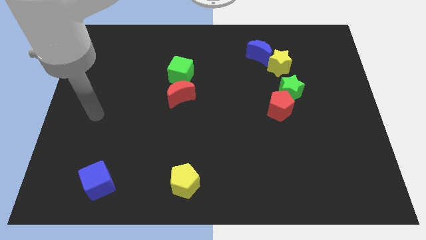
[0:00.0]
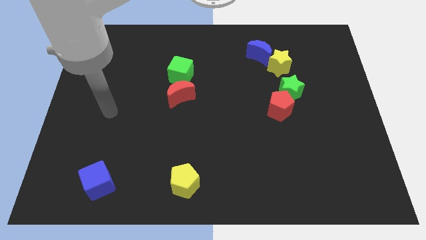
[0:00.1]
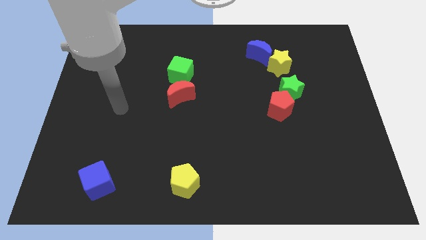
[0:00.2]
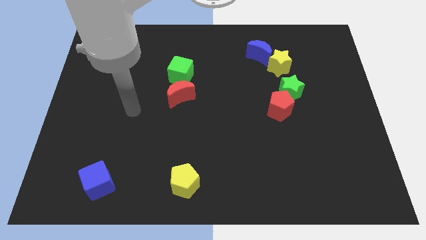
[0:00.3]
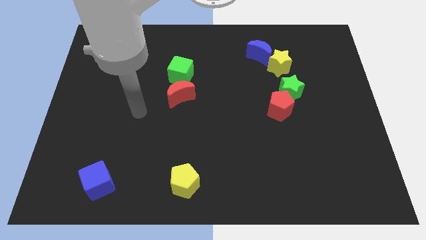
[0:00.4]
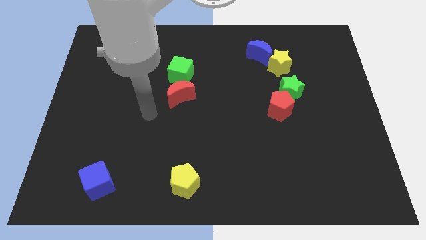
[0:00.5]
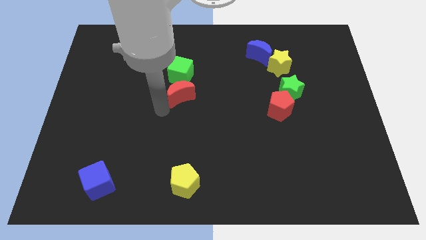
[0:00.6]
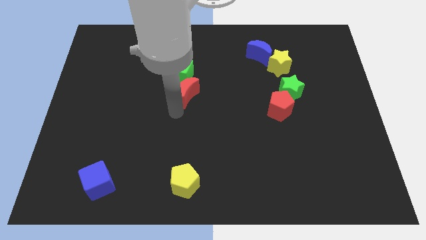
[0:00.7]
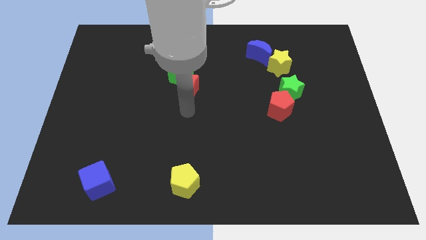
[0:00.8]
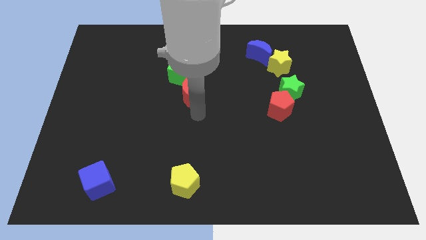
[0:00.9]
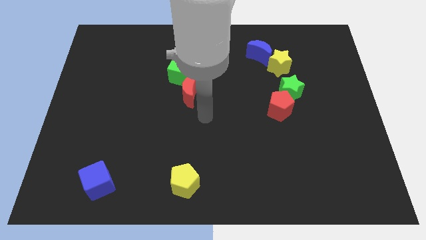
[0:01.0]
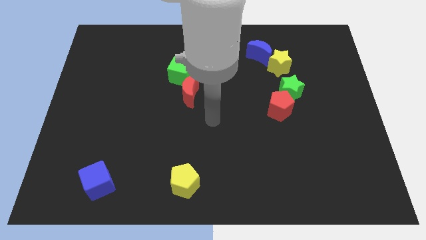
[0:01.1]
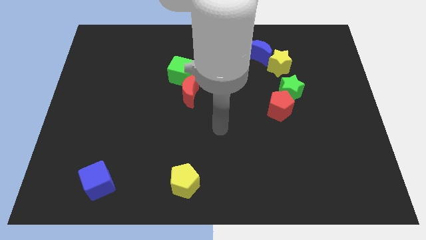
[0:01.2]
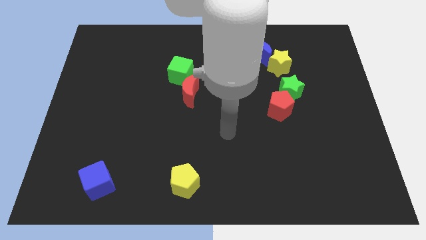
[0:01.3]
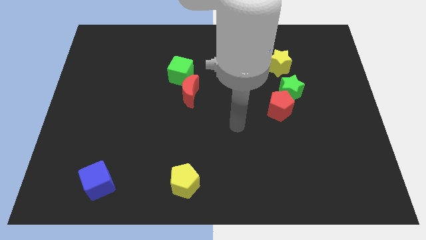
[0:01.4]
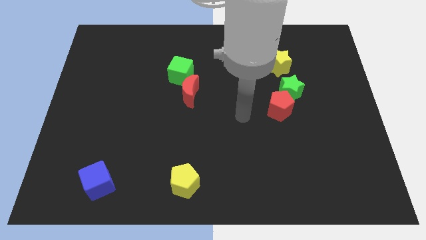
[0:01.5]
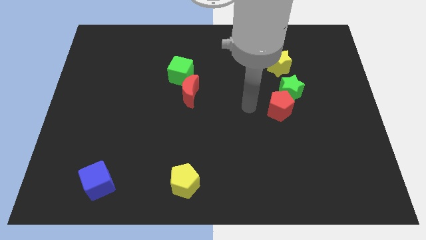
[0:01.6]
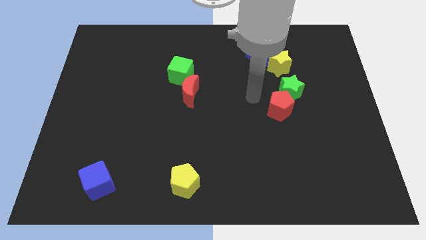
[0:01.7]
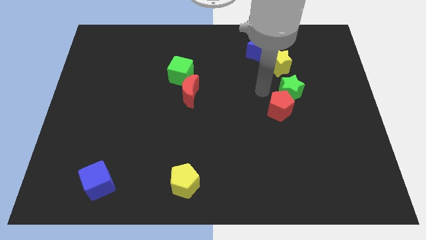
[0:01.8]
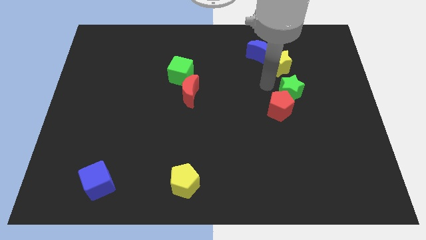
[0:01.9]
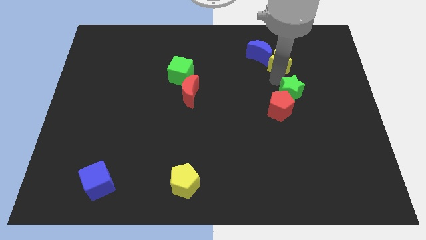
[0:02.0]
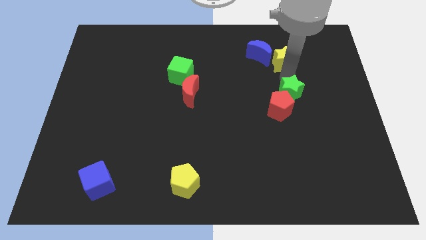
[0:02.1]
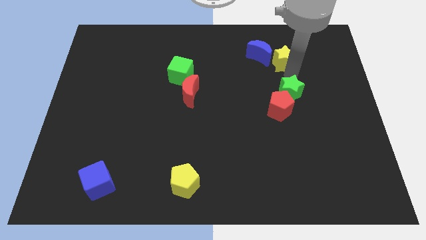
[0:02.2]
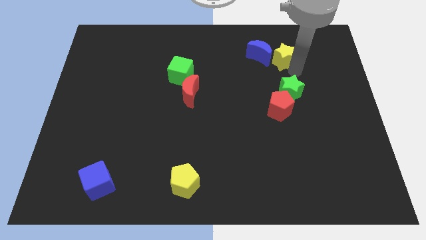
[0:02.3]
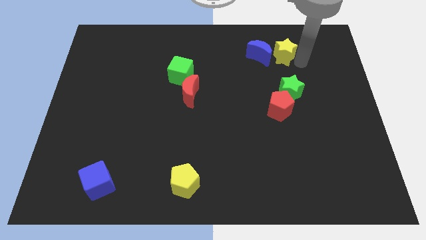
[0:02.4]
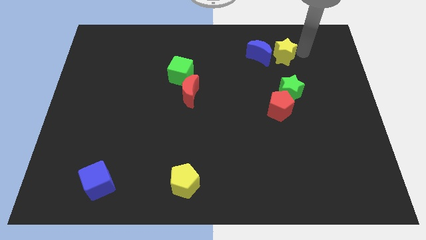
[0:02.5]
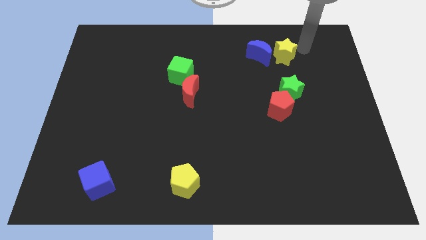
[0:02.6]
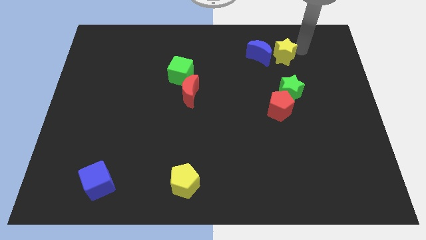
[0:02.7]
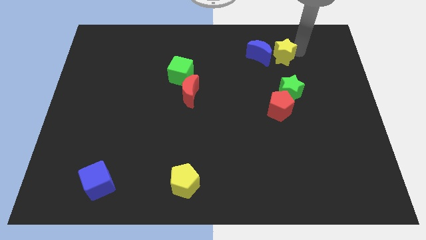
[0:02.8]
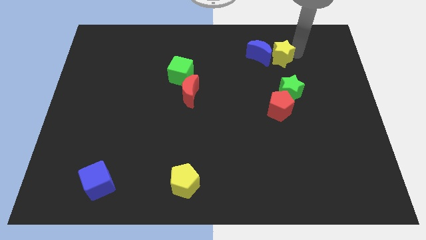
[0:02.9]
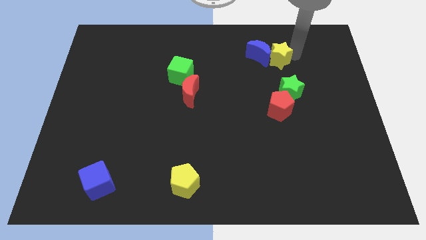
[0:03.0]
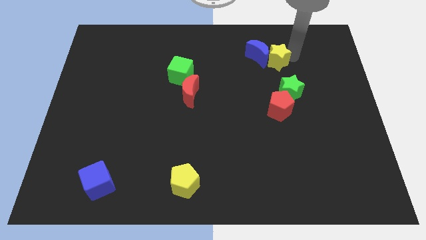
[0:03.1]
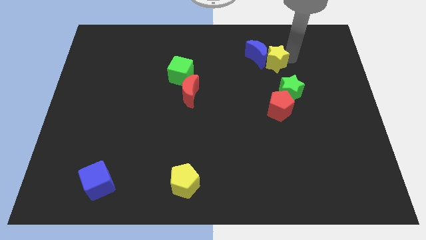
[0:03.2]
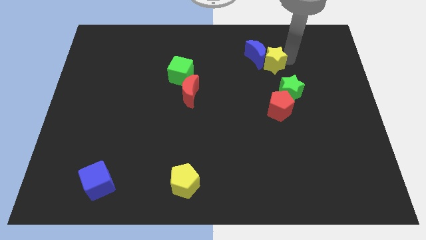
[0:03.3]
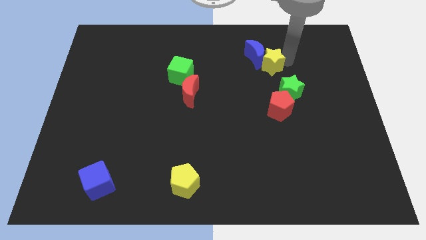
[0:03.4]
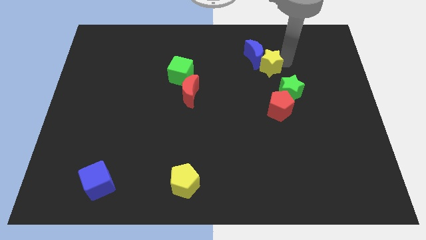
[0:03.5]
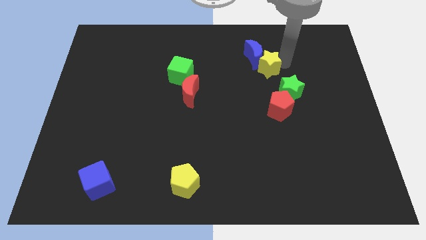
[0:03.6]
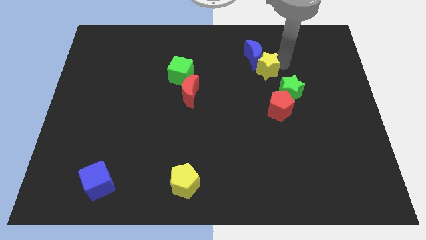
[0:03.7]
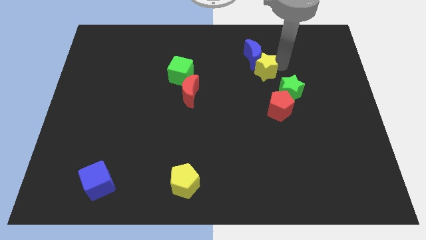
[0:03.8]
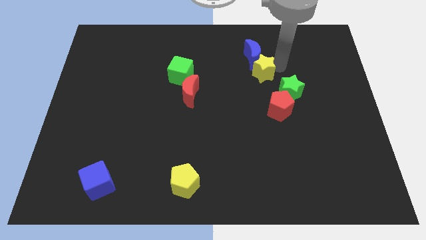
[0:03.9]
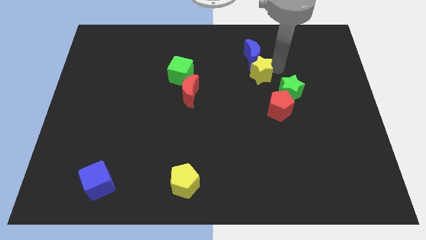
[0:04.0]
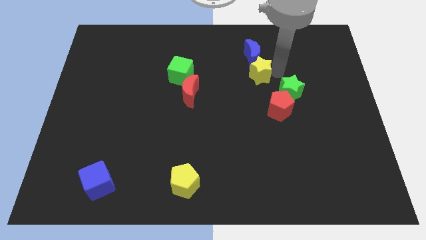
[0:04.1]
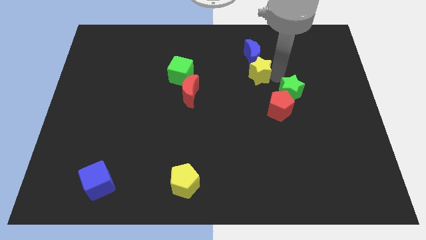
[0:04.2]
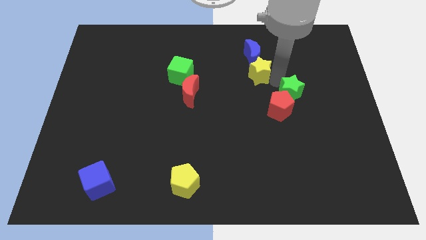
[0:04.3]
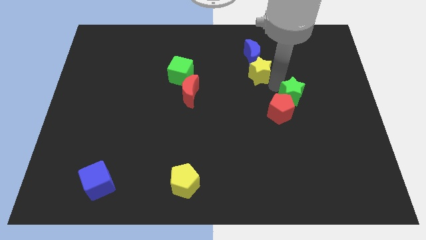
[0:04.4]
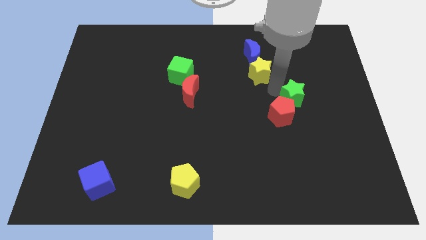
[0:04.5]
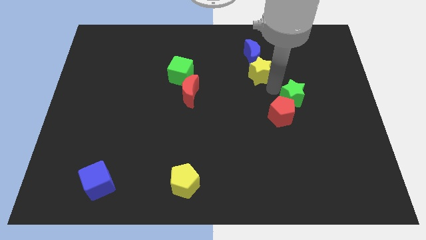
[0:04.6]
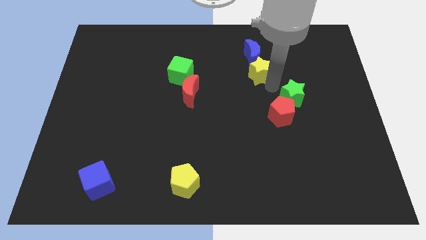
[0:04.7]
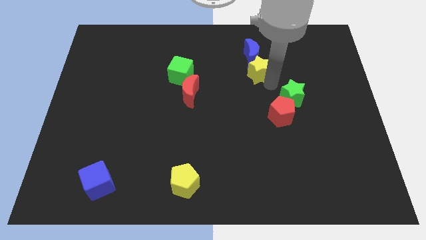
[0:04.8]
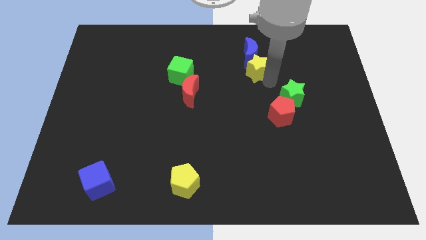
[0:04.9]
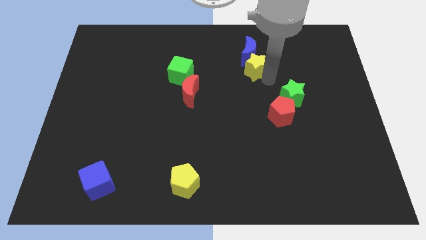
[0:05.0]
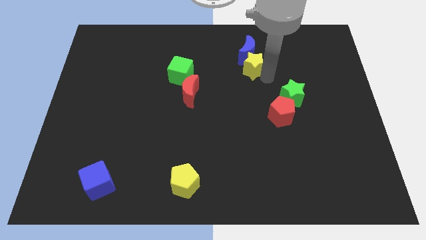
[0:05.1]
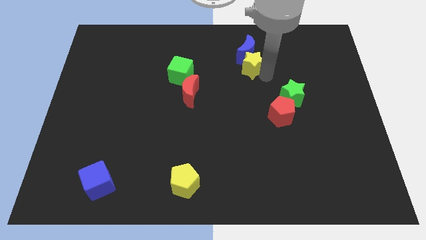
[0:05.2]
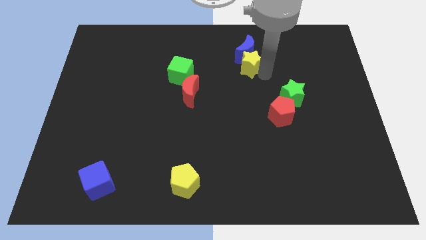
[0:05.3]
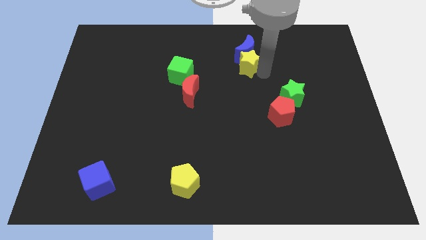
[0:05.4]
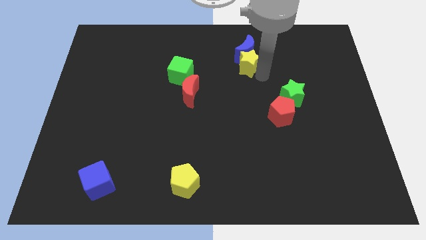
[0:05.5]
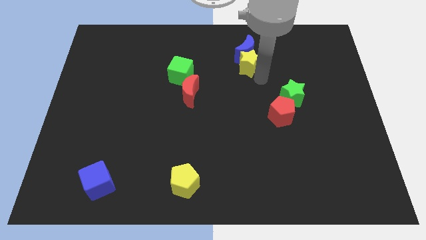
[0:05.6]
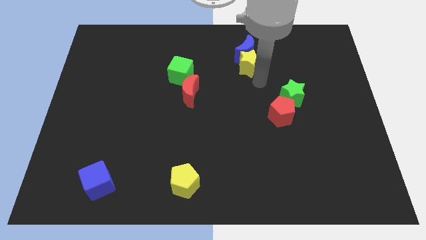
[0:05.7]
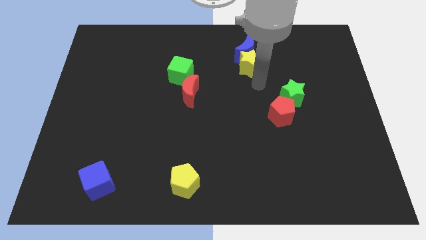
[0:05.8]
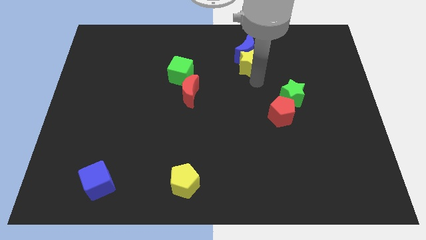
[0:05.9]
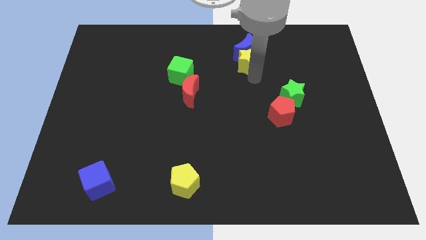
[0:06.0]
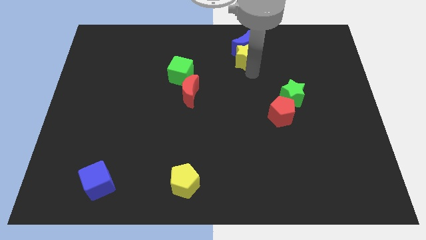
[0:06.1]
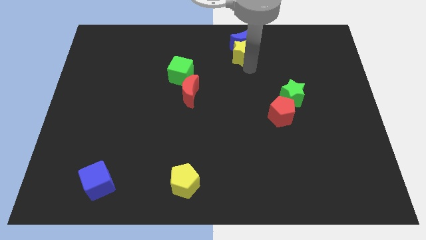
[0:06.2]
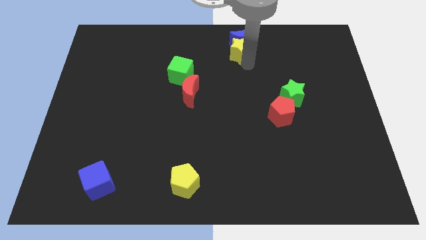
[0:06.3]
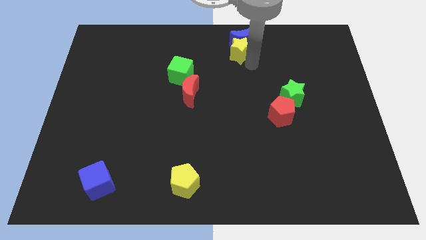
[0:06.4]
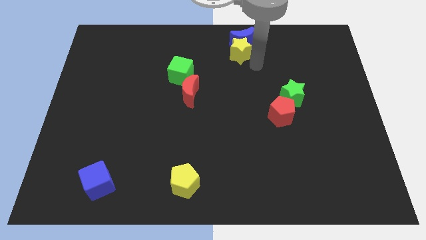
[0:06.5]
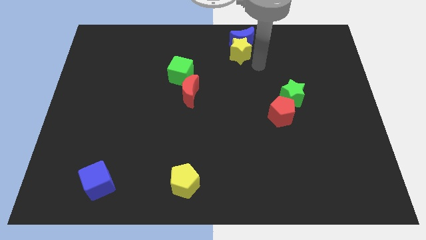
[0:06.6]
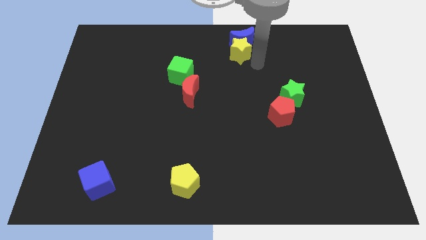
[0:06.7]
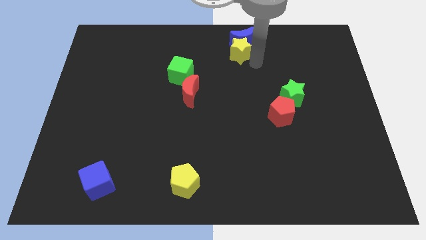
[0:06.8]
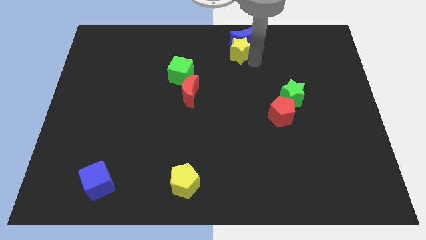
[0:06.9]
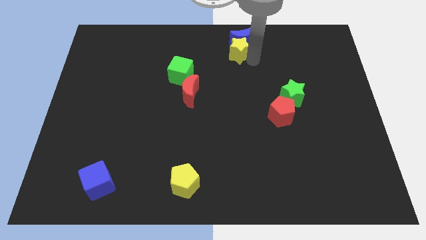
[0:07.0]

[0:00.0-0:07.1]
push the yellow star to the towards your base
